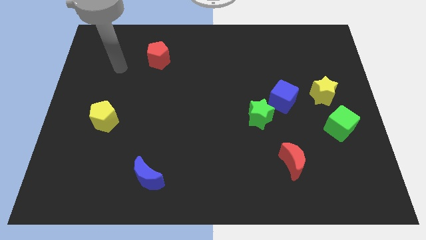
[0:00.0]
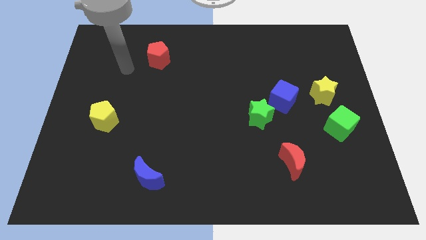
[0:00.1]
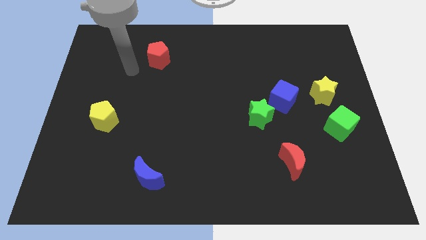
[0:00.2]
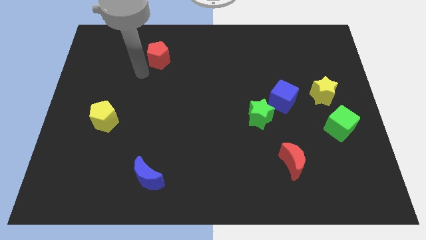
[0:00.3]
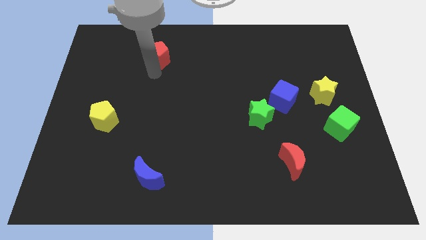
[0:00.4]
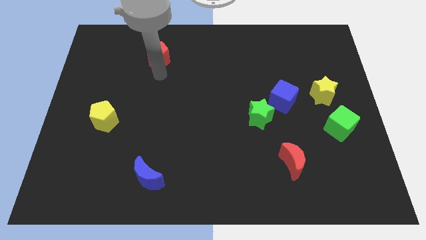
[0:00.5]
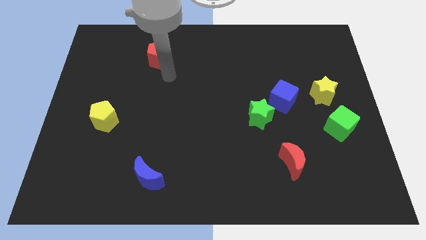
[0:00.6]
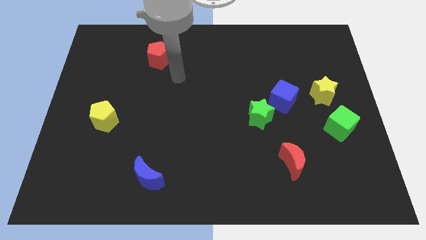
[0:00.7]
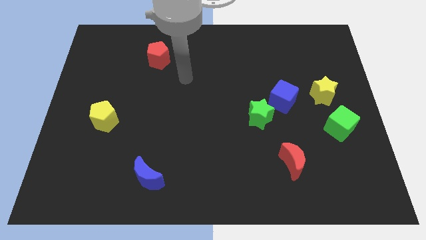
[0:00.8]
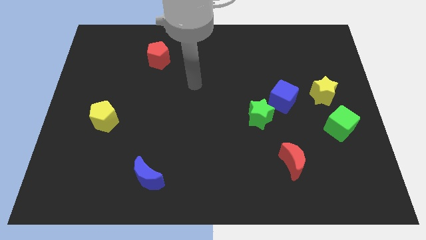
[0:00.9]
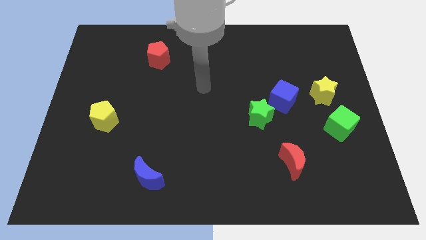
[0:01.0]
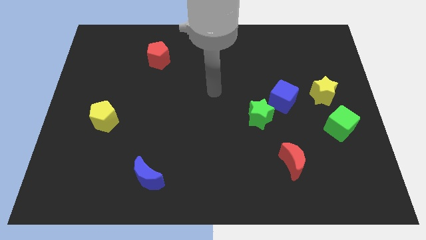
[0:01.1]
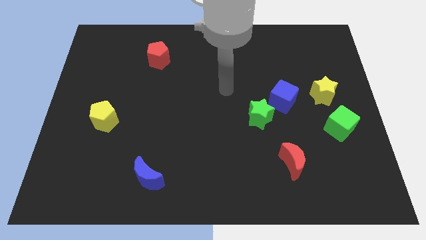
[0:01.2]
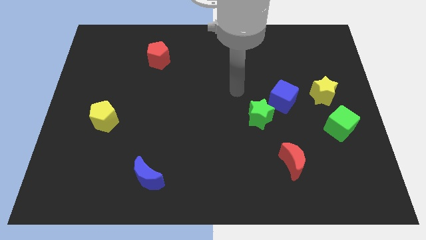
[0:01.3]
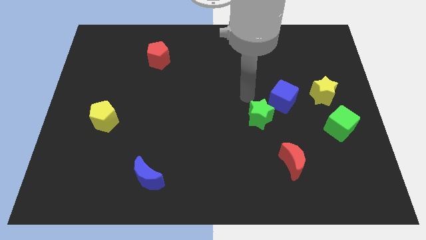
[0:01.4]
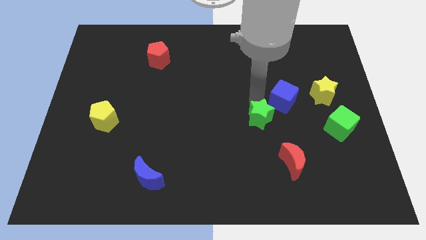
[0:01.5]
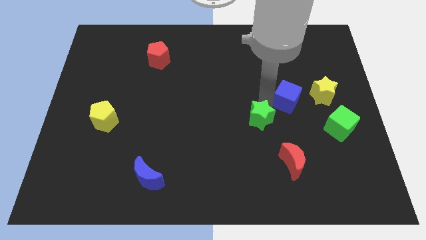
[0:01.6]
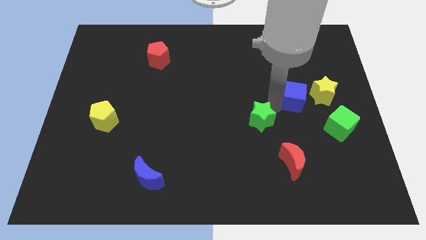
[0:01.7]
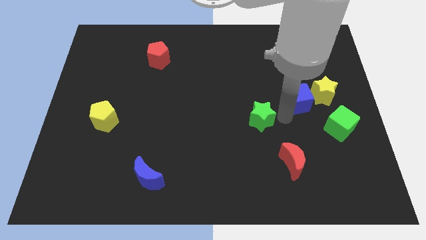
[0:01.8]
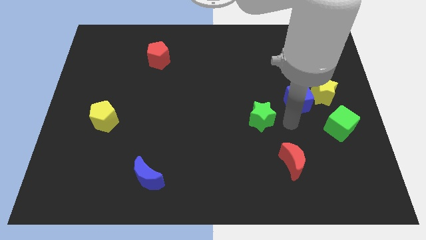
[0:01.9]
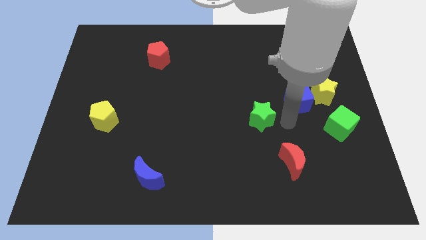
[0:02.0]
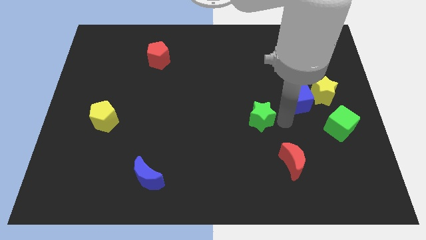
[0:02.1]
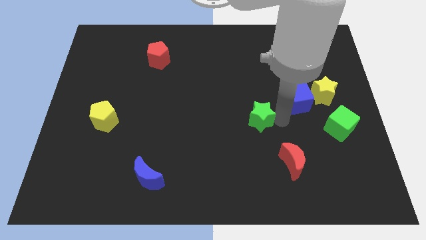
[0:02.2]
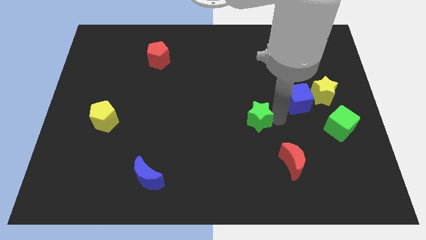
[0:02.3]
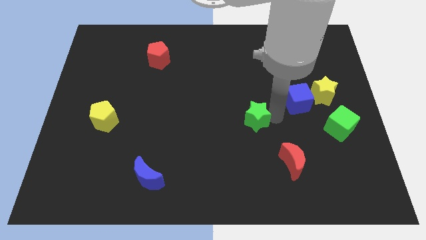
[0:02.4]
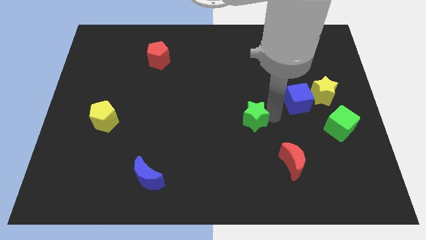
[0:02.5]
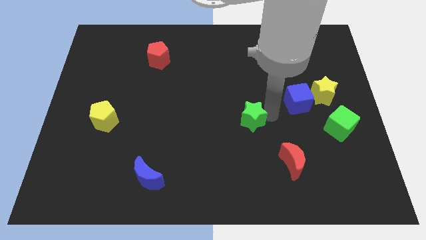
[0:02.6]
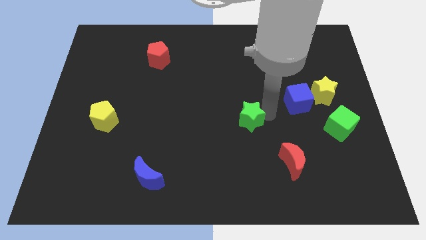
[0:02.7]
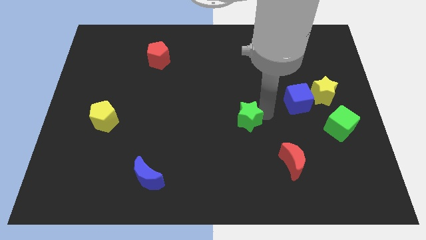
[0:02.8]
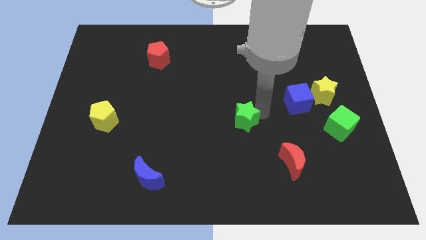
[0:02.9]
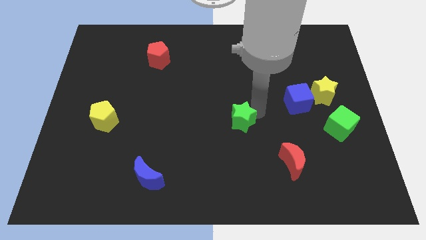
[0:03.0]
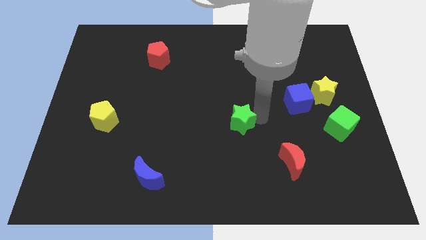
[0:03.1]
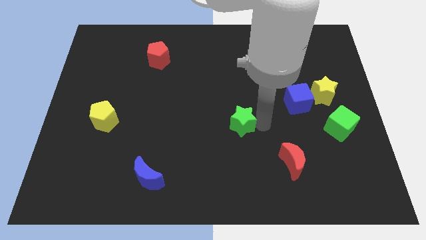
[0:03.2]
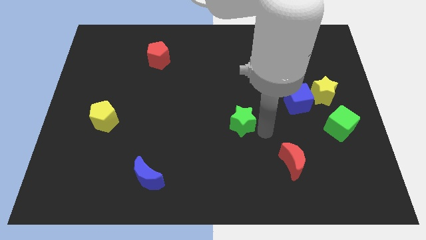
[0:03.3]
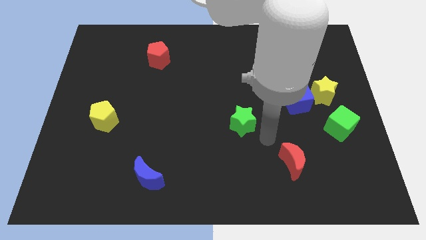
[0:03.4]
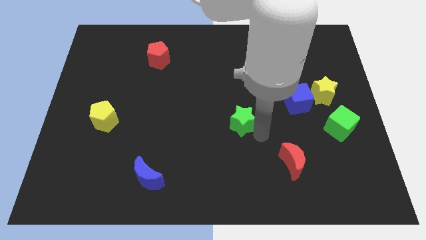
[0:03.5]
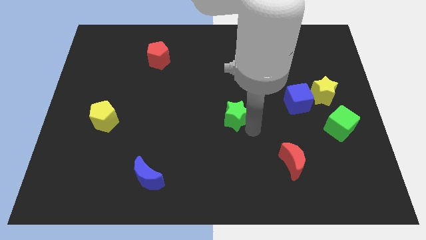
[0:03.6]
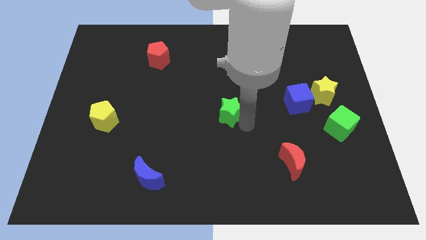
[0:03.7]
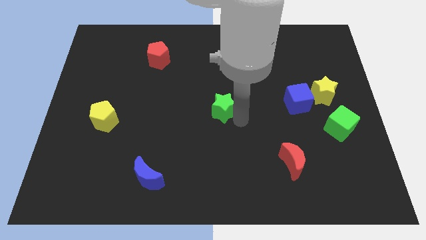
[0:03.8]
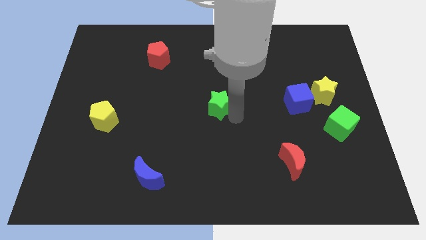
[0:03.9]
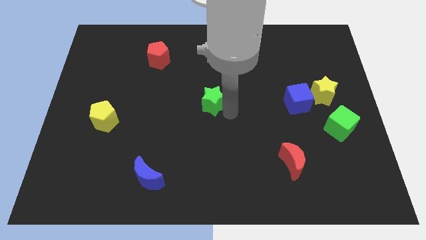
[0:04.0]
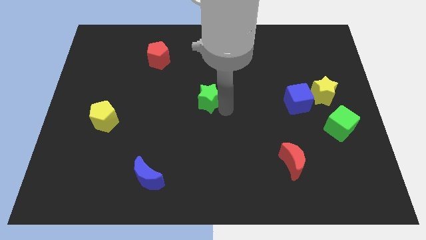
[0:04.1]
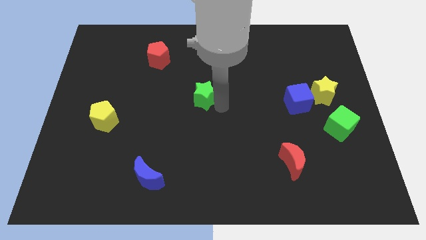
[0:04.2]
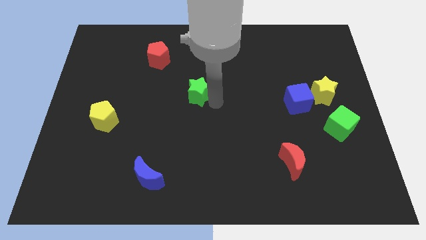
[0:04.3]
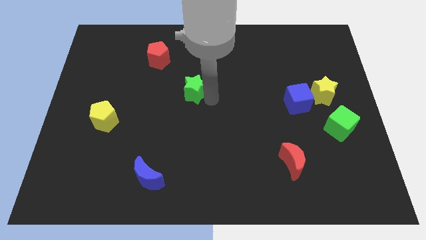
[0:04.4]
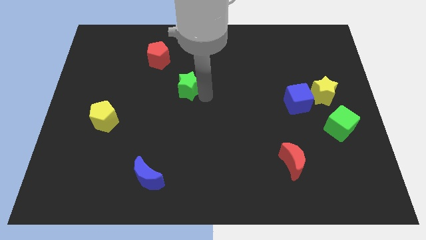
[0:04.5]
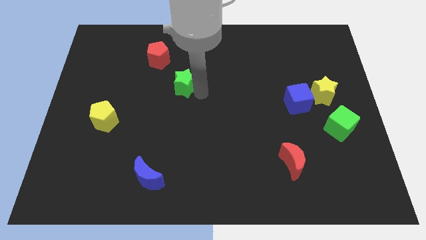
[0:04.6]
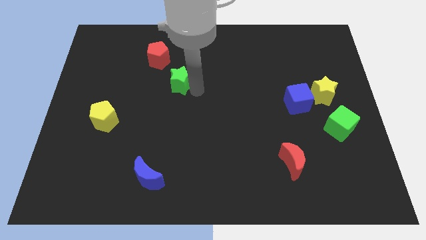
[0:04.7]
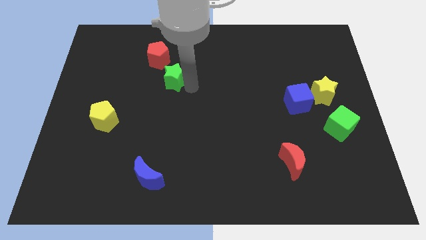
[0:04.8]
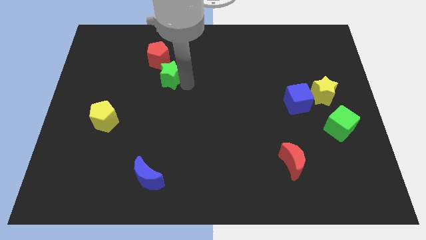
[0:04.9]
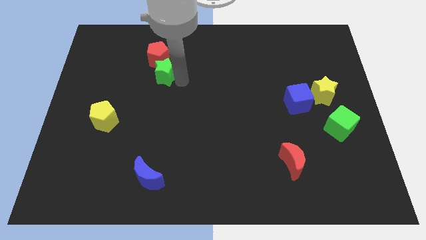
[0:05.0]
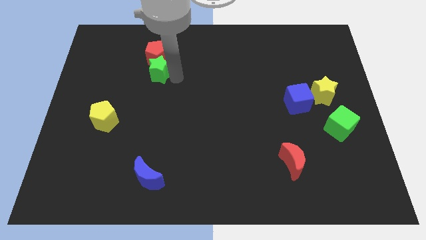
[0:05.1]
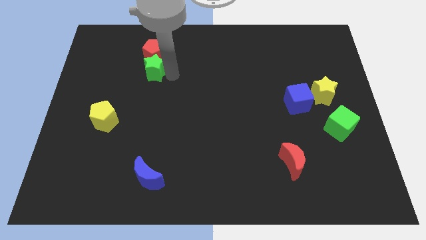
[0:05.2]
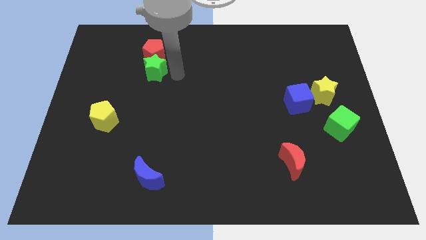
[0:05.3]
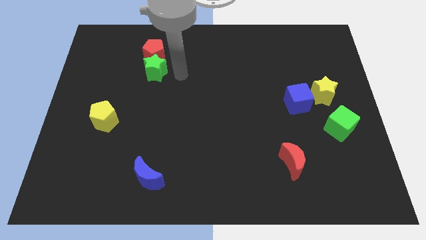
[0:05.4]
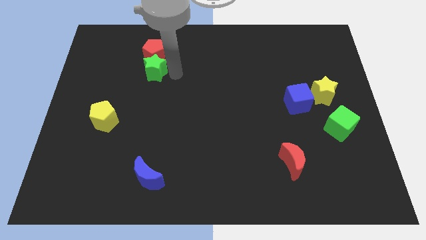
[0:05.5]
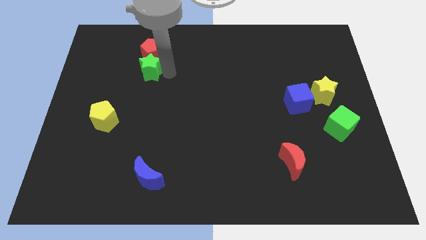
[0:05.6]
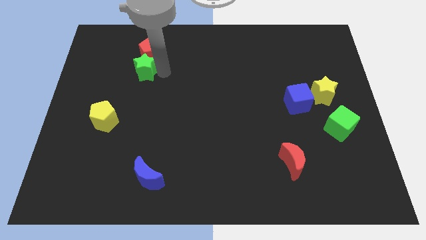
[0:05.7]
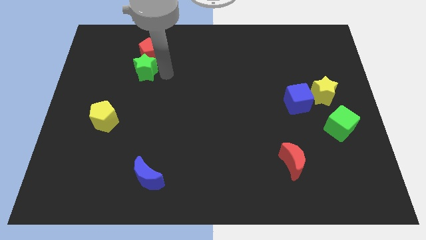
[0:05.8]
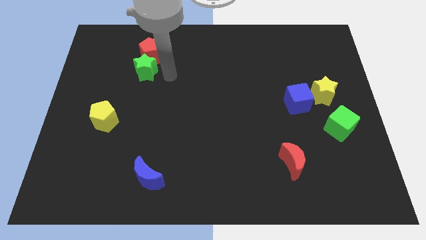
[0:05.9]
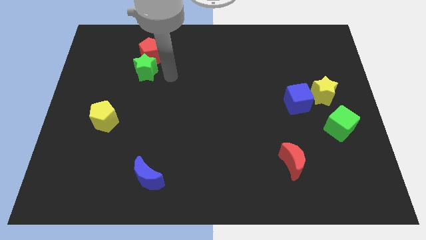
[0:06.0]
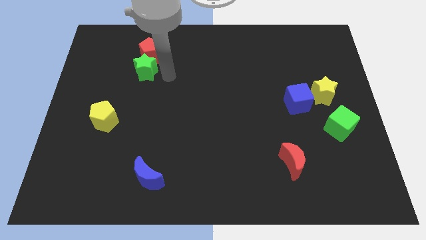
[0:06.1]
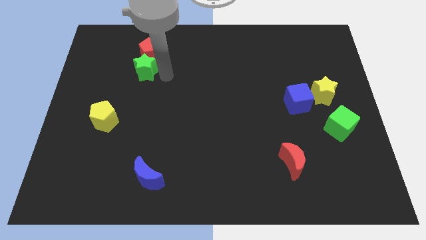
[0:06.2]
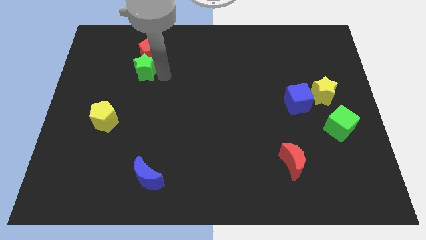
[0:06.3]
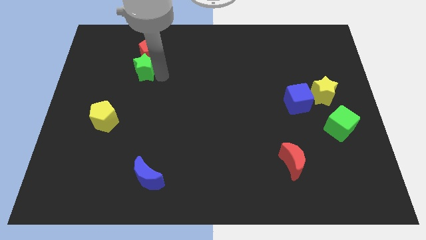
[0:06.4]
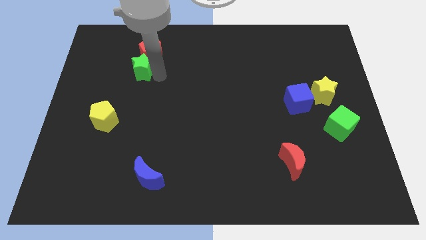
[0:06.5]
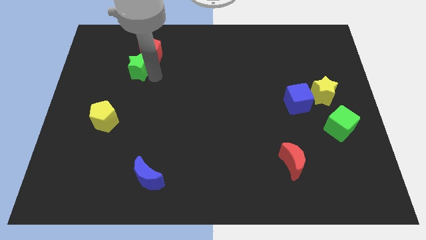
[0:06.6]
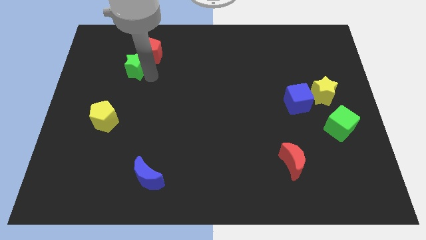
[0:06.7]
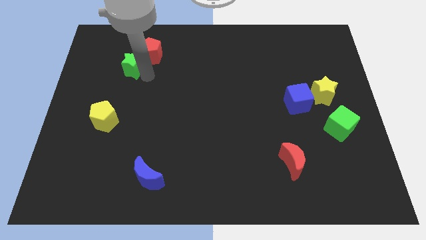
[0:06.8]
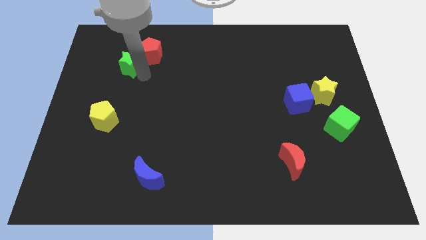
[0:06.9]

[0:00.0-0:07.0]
move the green star left of the red pentagon
